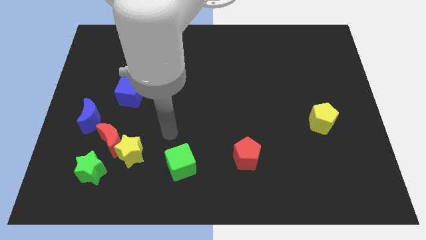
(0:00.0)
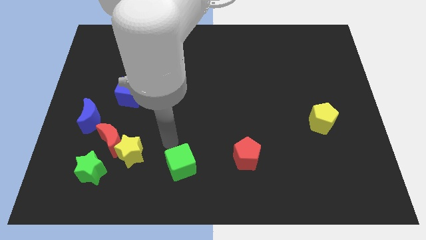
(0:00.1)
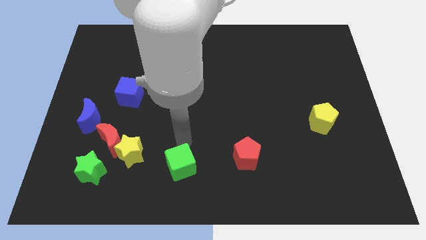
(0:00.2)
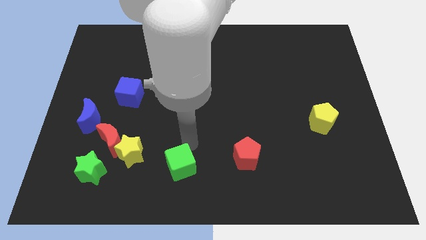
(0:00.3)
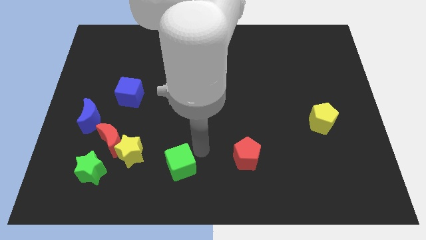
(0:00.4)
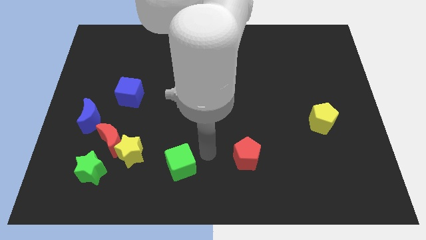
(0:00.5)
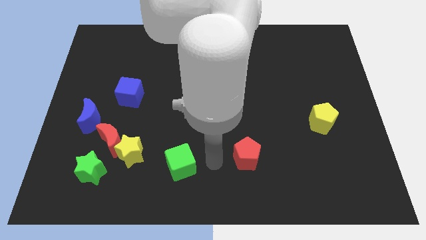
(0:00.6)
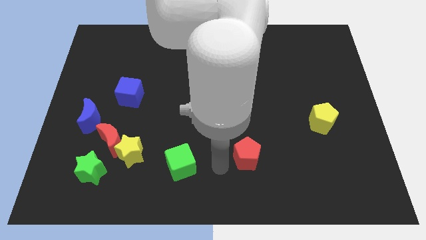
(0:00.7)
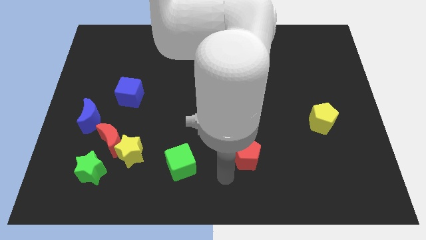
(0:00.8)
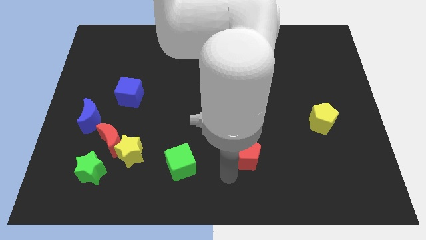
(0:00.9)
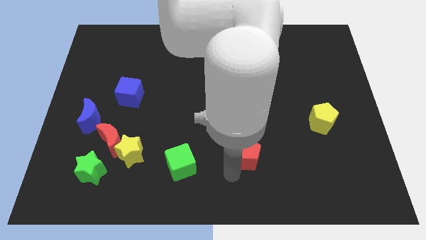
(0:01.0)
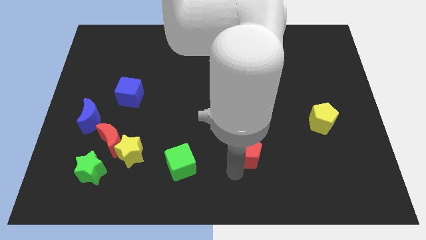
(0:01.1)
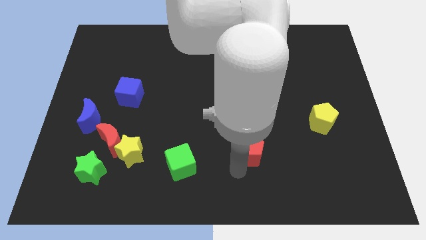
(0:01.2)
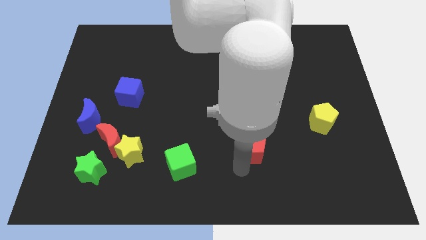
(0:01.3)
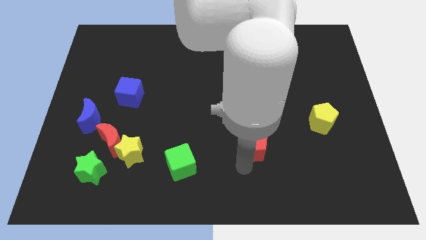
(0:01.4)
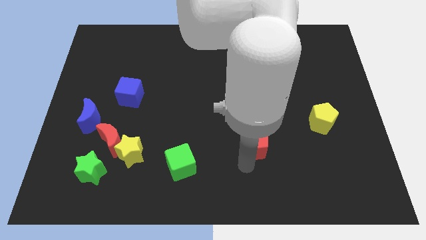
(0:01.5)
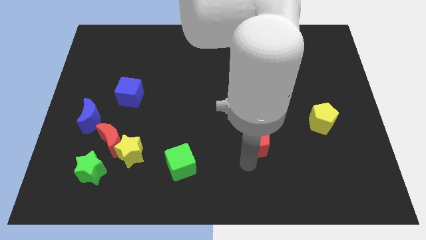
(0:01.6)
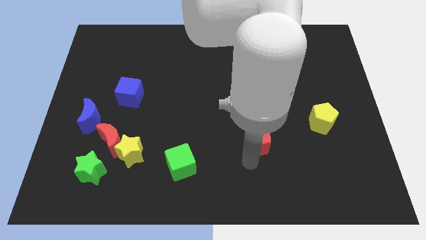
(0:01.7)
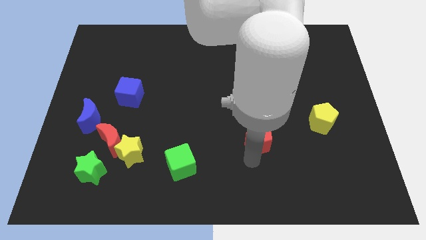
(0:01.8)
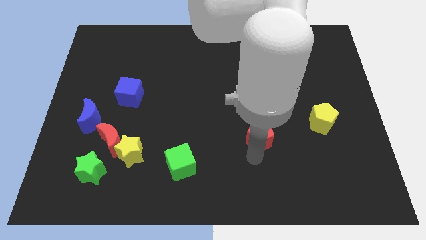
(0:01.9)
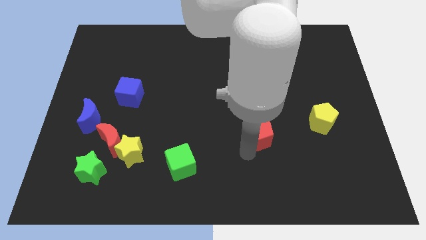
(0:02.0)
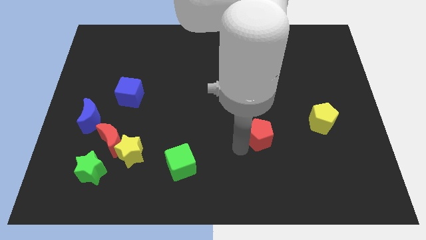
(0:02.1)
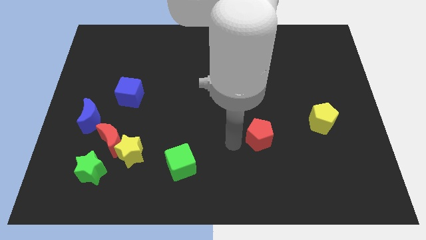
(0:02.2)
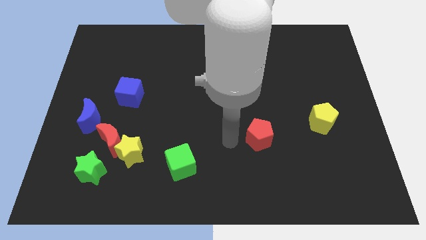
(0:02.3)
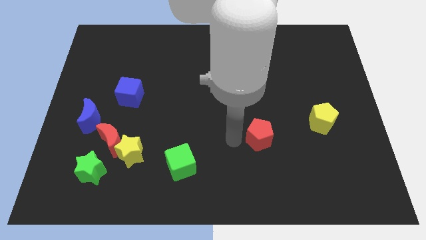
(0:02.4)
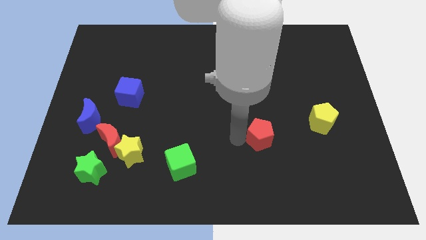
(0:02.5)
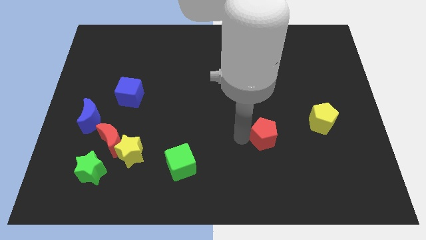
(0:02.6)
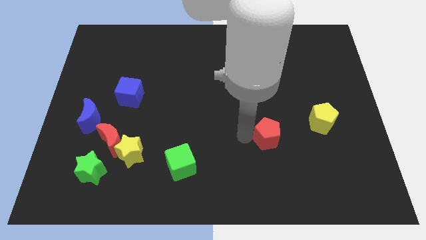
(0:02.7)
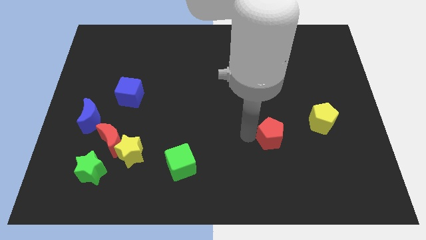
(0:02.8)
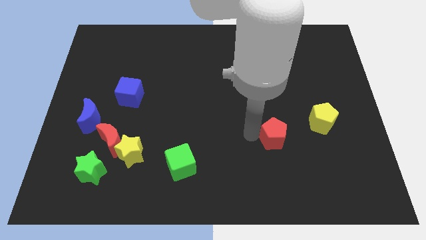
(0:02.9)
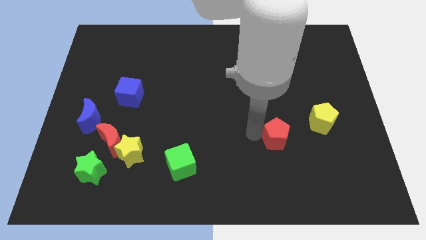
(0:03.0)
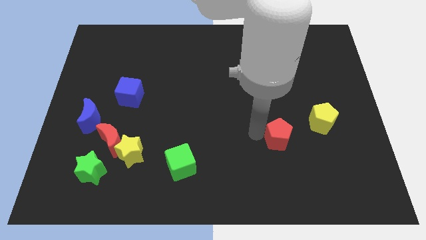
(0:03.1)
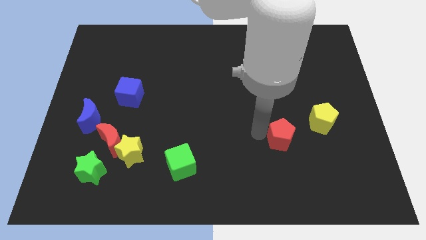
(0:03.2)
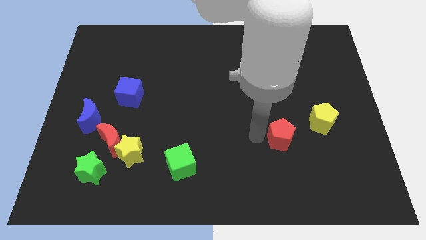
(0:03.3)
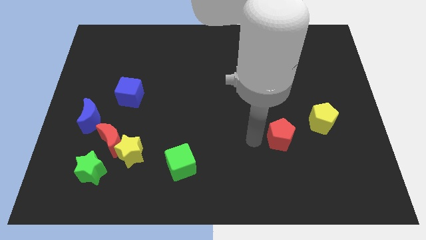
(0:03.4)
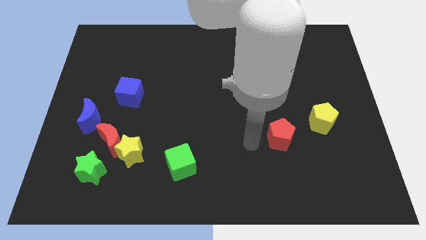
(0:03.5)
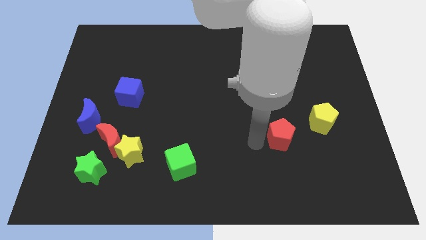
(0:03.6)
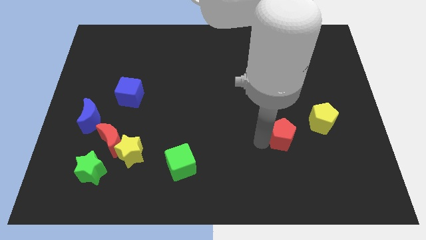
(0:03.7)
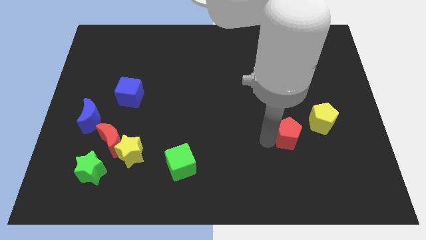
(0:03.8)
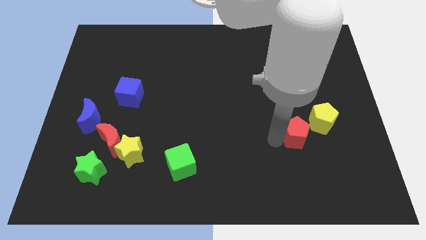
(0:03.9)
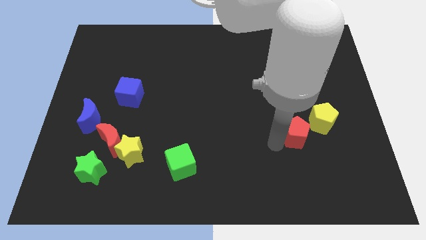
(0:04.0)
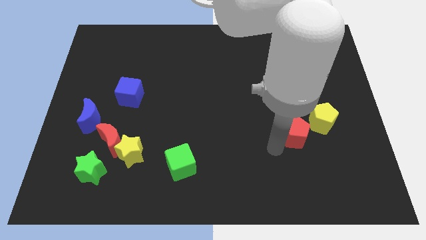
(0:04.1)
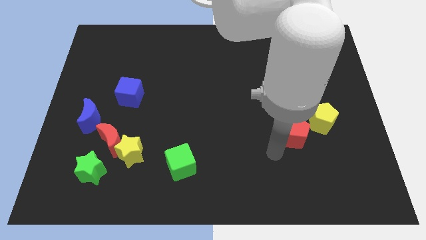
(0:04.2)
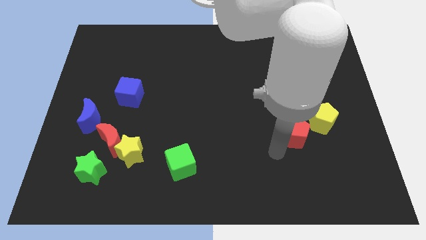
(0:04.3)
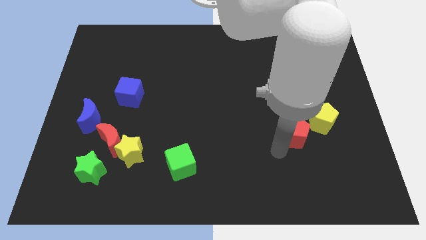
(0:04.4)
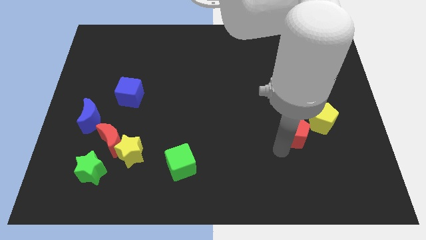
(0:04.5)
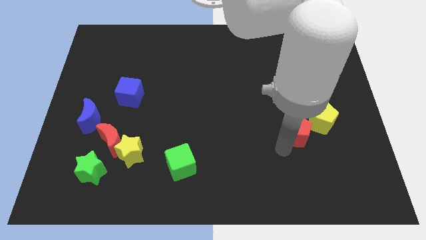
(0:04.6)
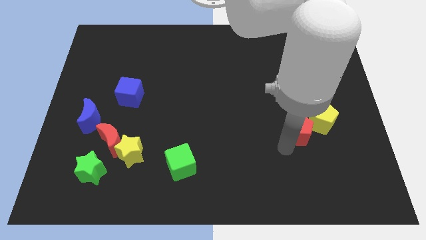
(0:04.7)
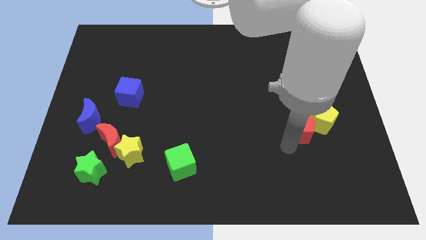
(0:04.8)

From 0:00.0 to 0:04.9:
move the red pentagon to the yellow pentagon

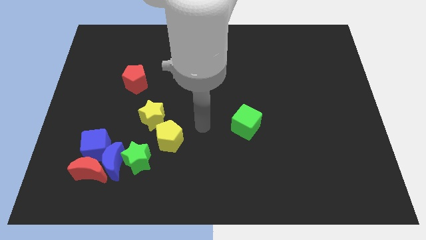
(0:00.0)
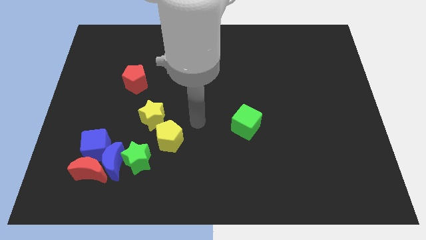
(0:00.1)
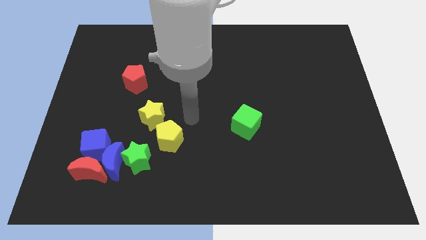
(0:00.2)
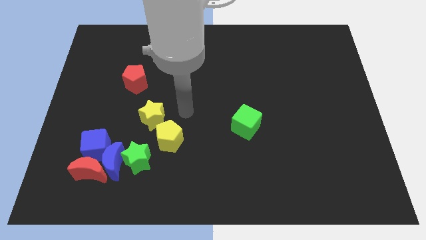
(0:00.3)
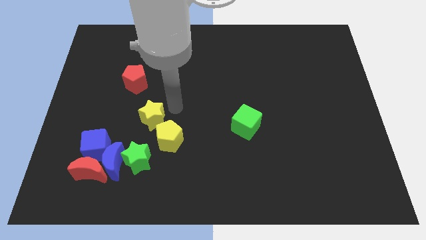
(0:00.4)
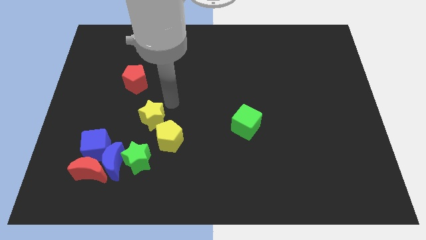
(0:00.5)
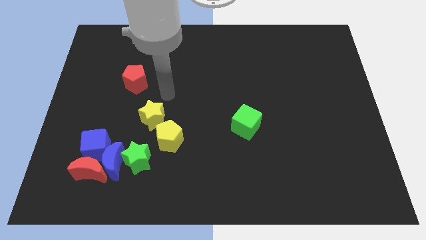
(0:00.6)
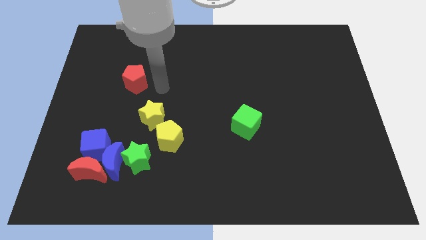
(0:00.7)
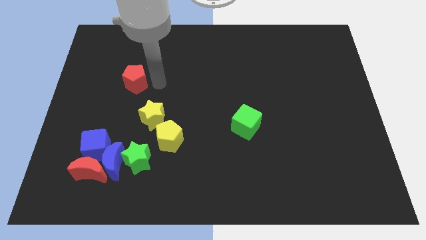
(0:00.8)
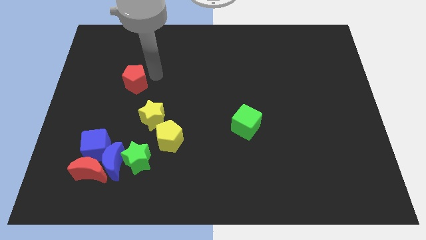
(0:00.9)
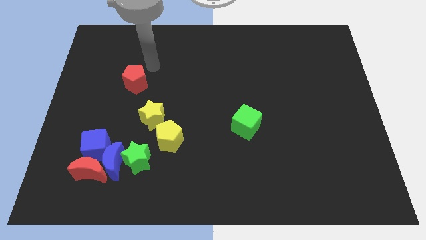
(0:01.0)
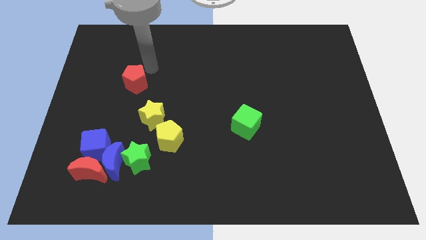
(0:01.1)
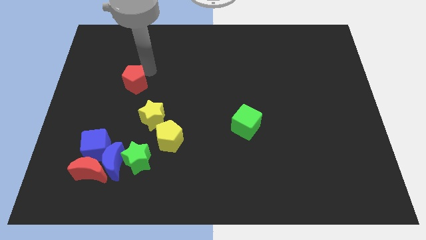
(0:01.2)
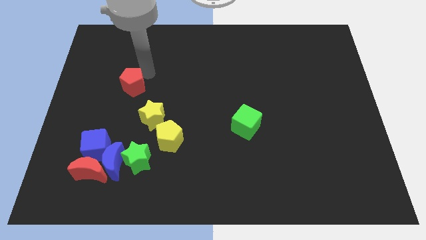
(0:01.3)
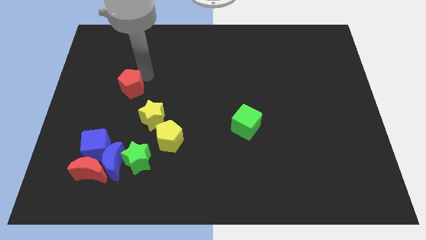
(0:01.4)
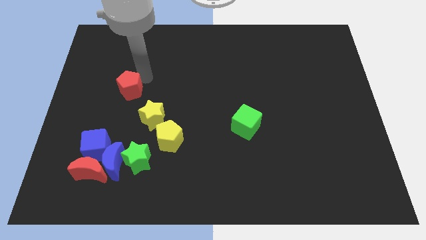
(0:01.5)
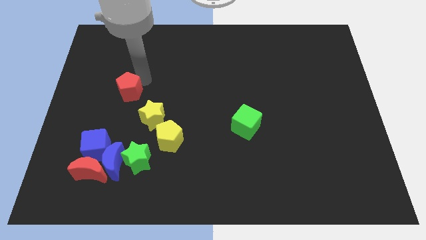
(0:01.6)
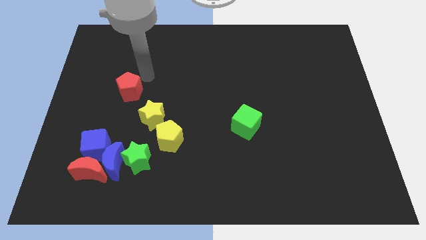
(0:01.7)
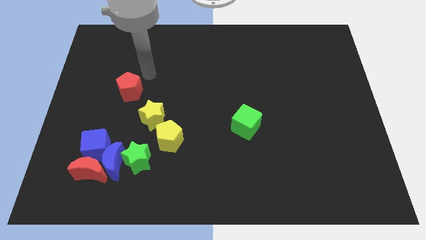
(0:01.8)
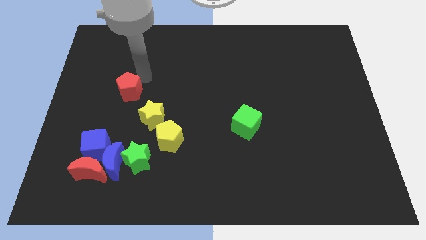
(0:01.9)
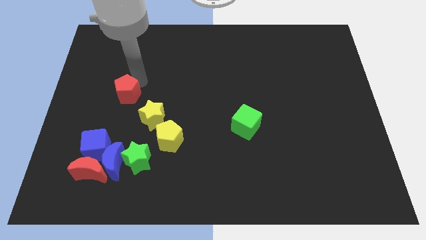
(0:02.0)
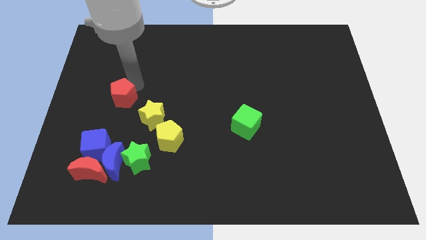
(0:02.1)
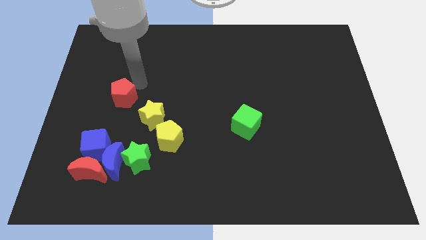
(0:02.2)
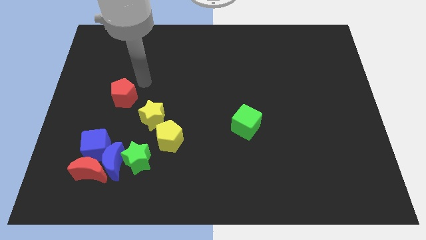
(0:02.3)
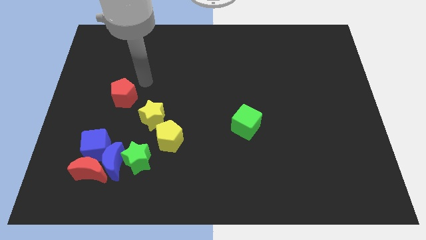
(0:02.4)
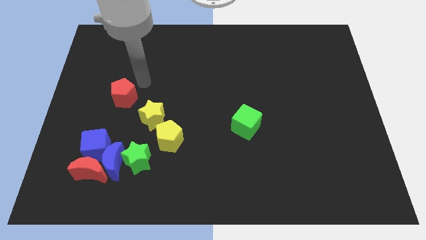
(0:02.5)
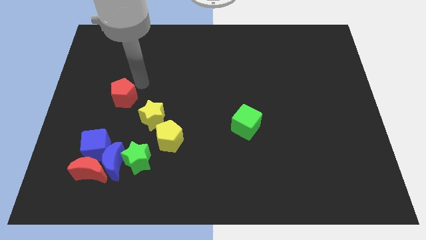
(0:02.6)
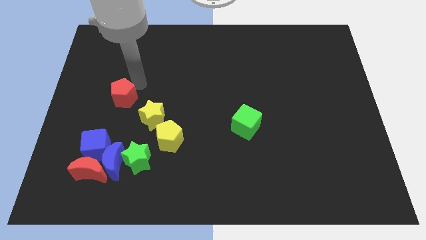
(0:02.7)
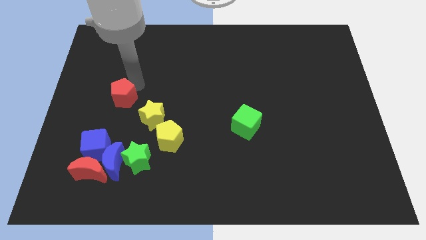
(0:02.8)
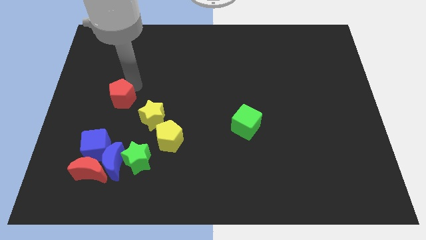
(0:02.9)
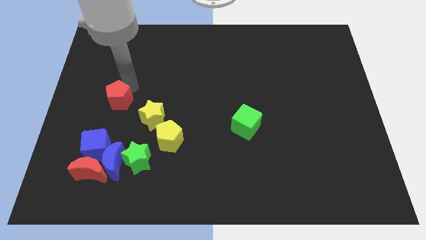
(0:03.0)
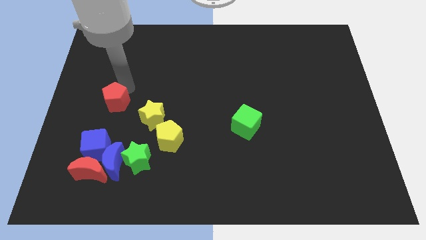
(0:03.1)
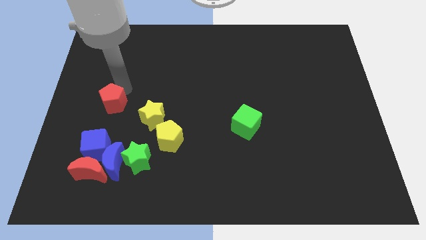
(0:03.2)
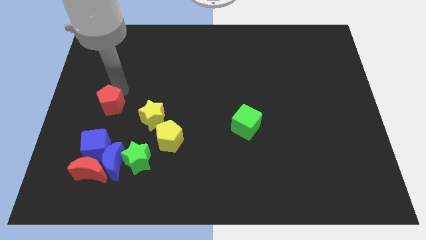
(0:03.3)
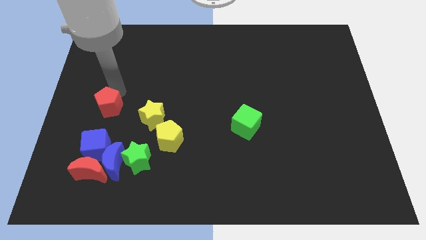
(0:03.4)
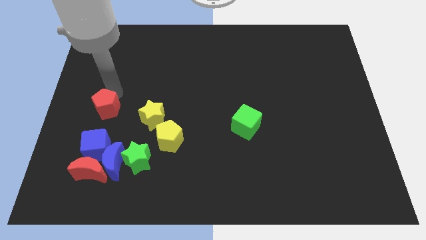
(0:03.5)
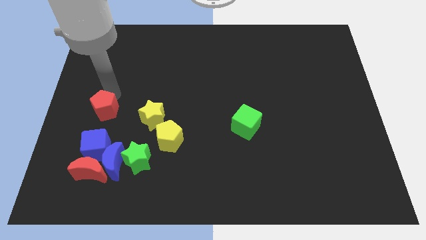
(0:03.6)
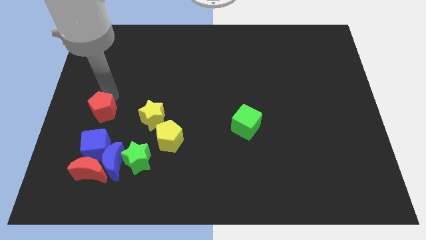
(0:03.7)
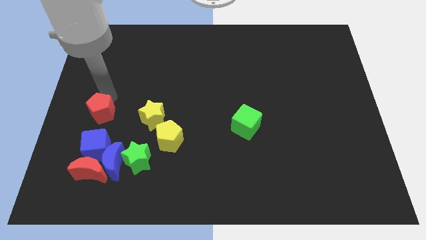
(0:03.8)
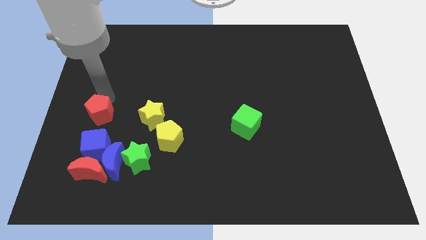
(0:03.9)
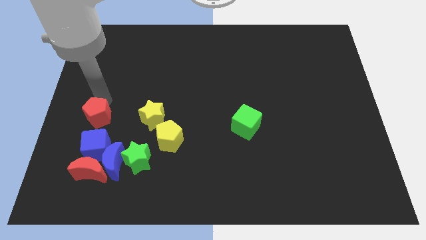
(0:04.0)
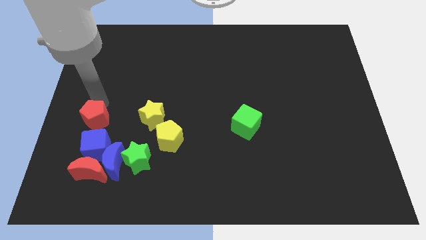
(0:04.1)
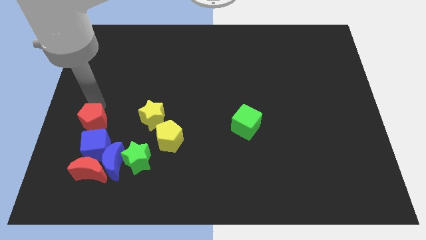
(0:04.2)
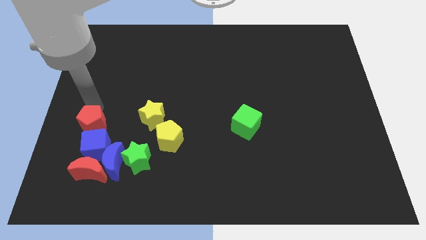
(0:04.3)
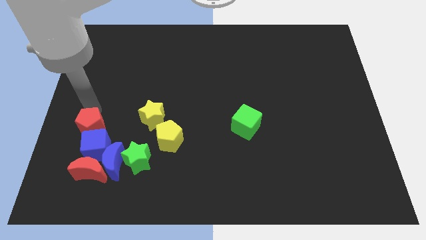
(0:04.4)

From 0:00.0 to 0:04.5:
put the red pentagon to the blue cube
